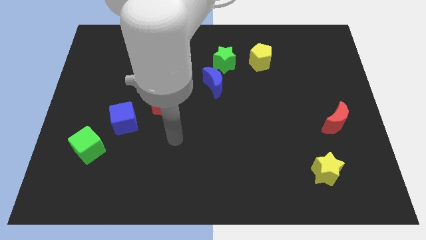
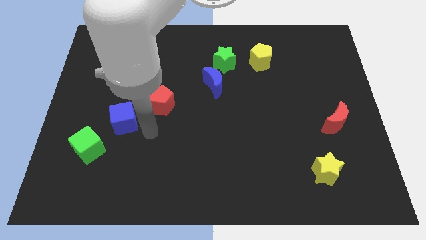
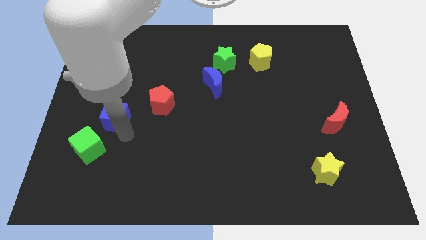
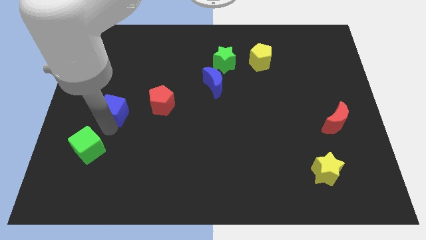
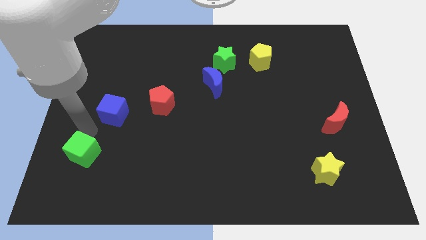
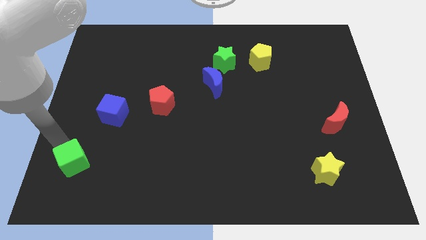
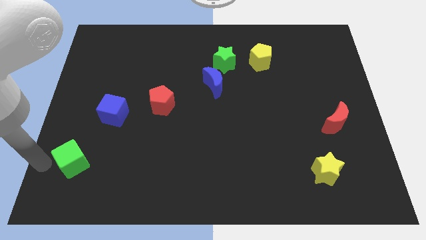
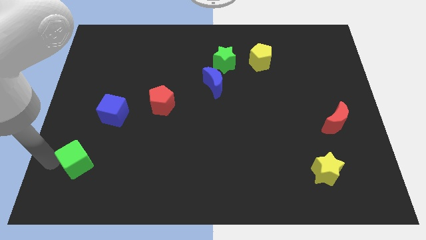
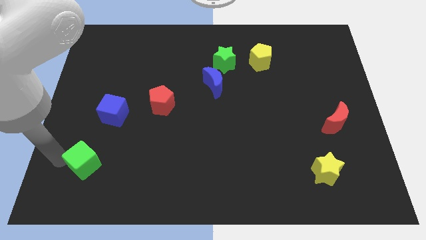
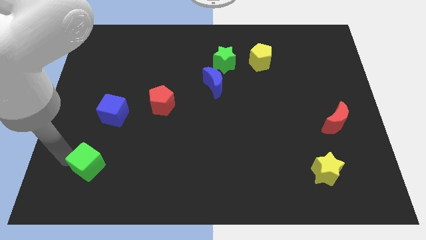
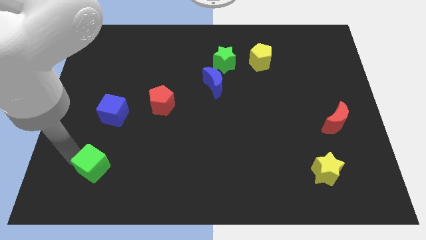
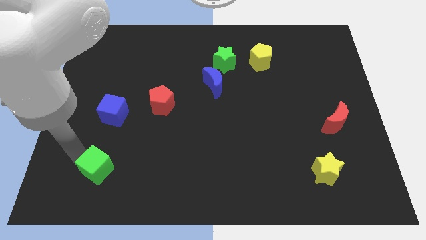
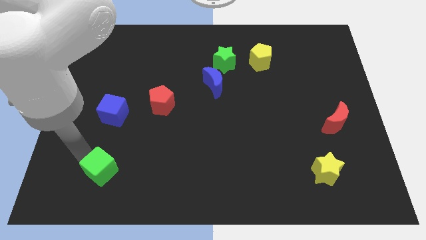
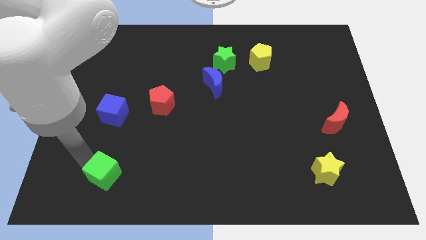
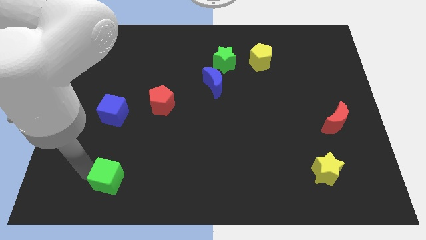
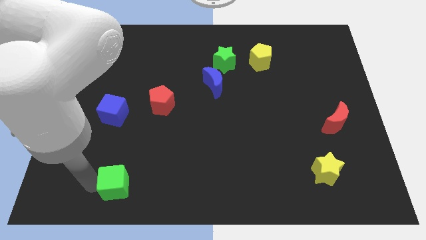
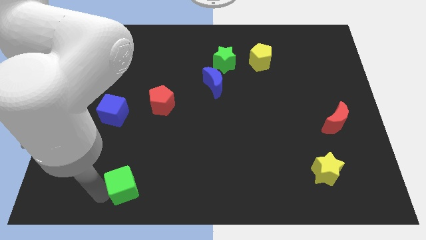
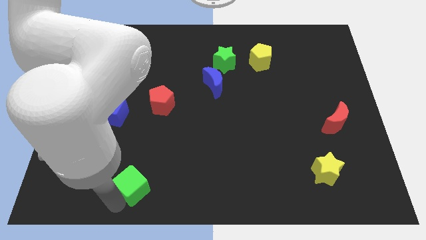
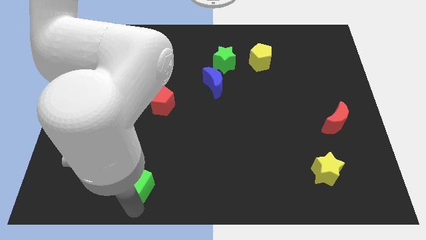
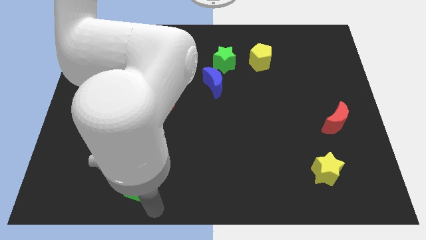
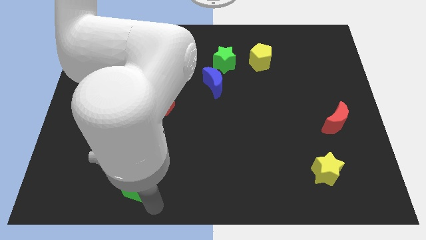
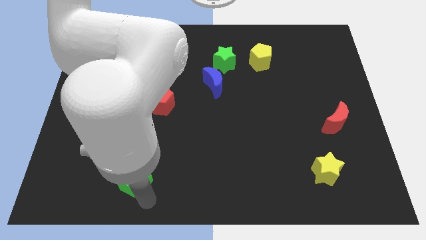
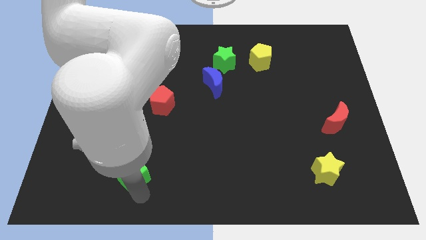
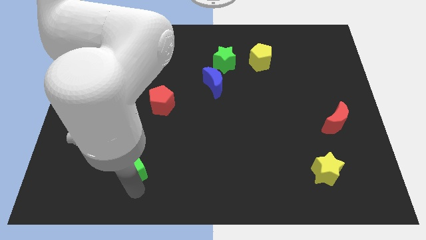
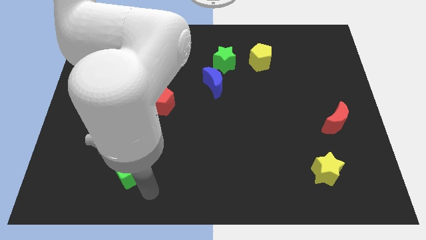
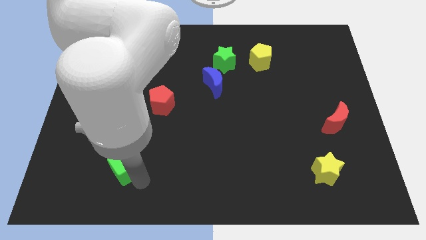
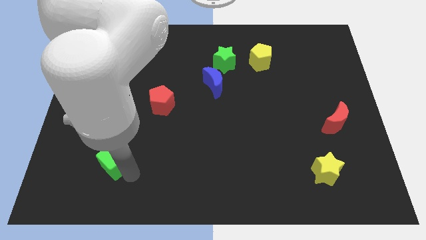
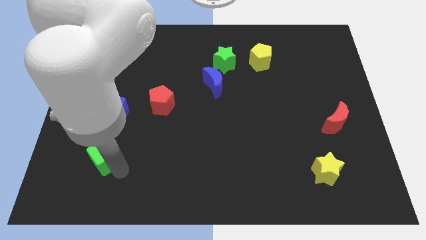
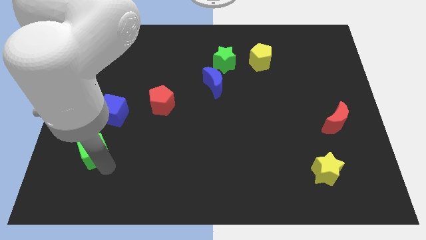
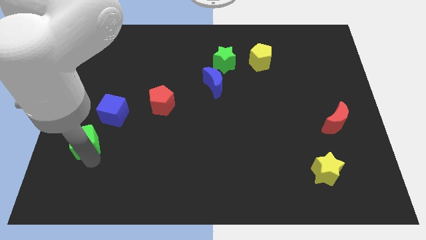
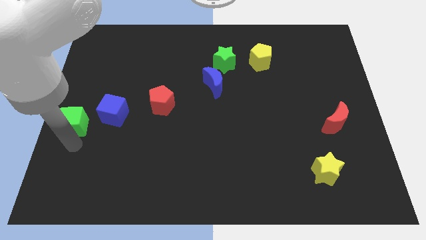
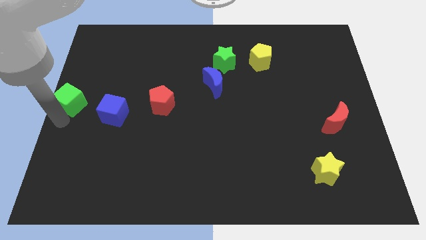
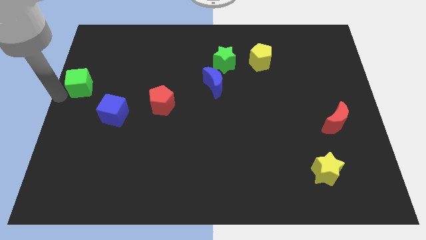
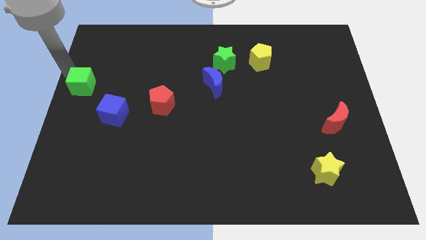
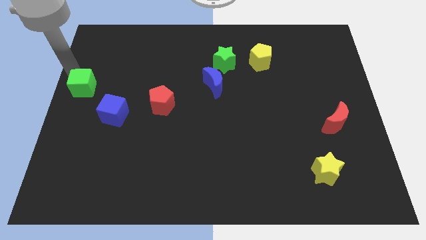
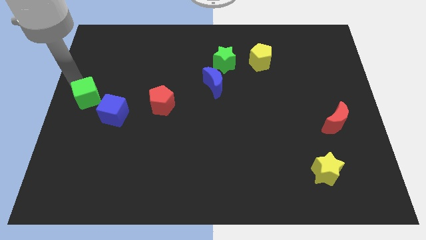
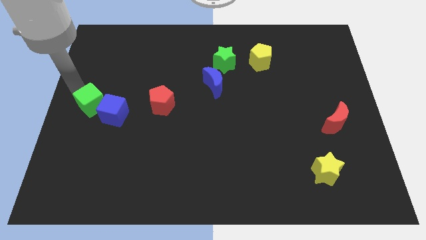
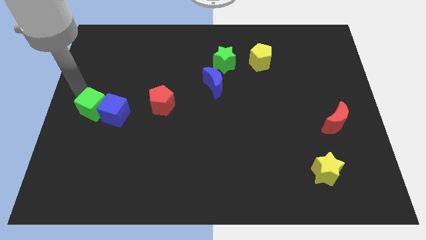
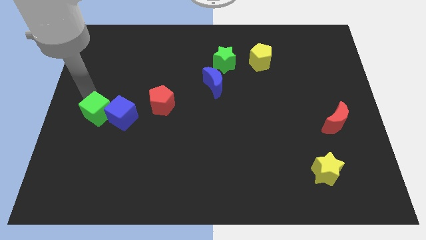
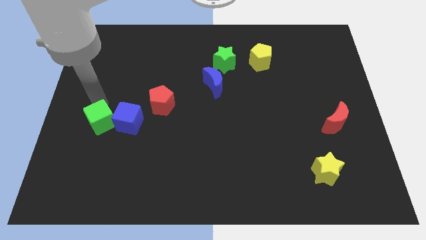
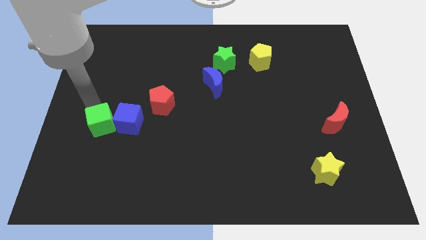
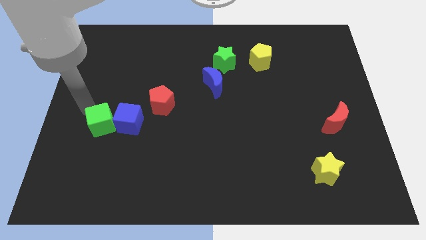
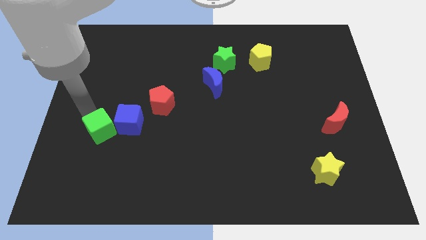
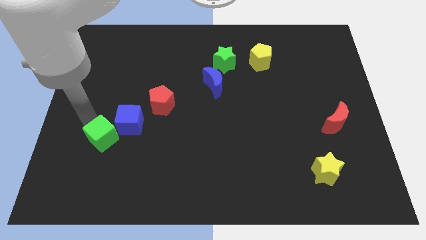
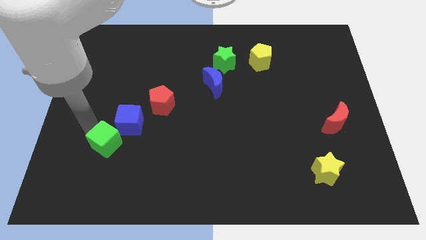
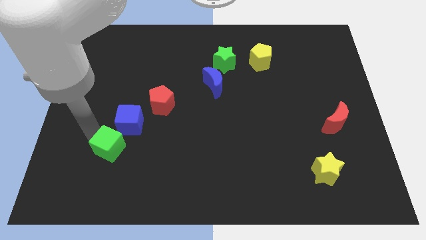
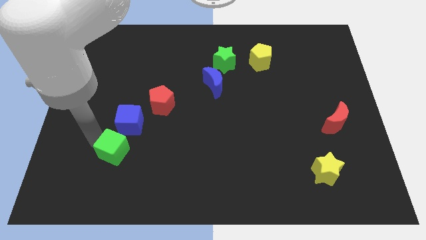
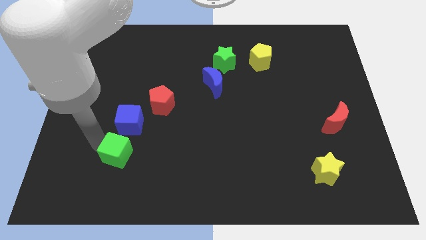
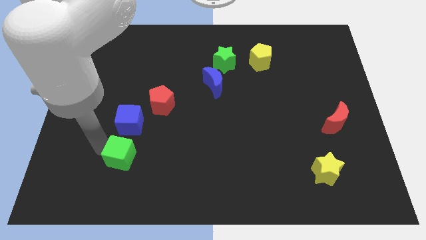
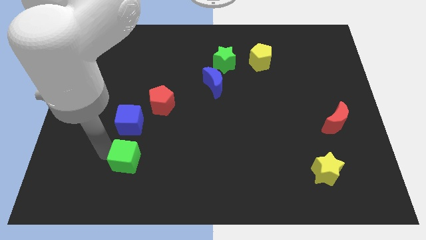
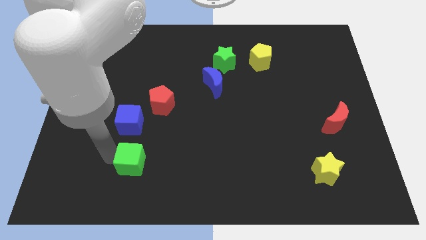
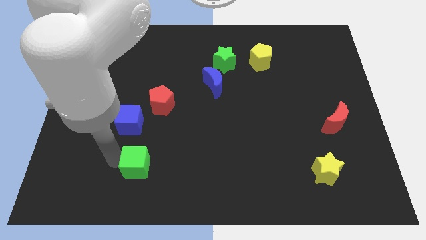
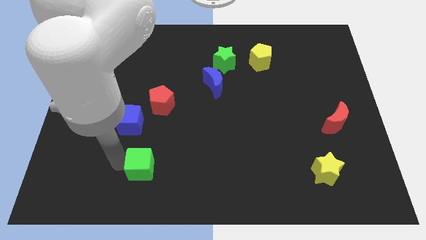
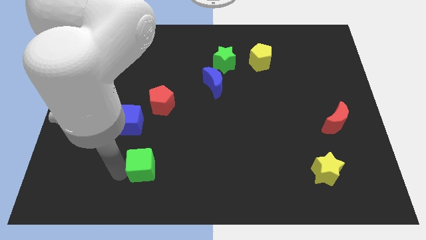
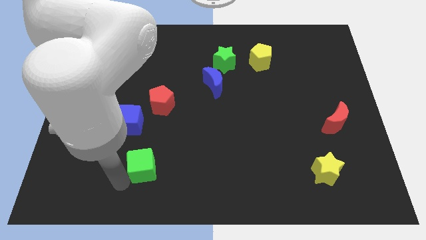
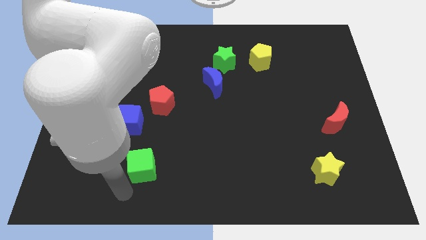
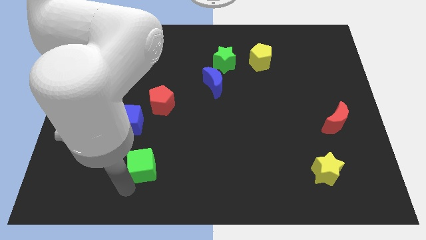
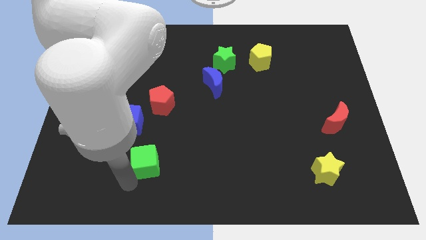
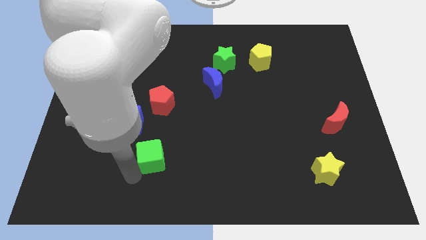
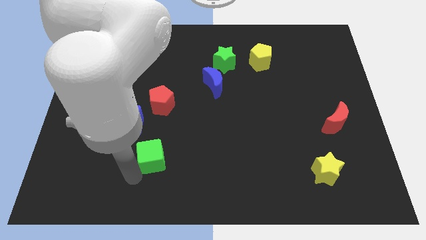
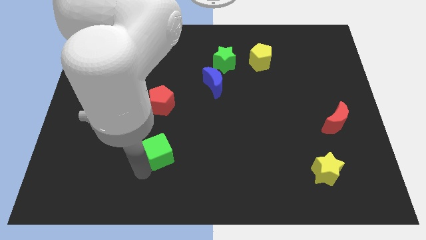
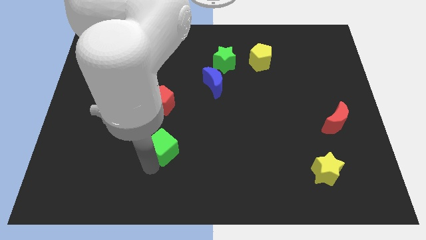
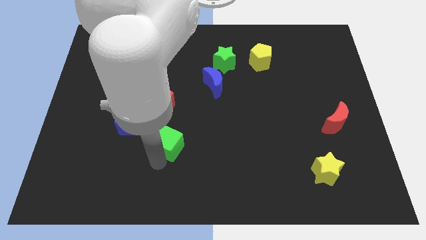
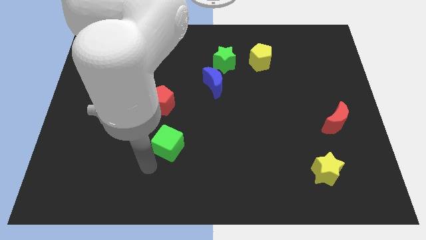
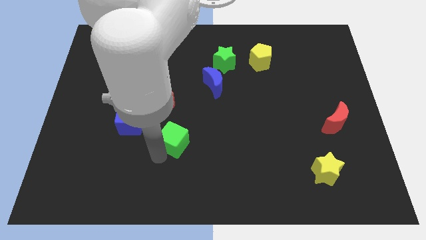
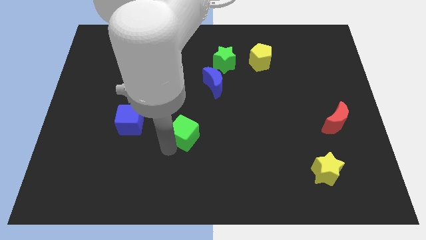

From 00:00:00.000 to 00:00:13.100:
slide the green cube to the center of the board
